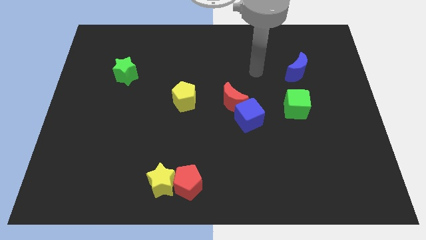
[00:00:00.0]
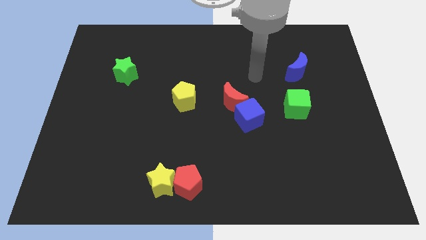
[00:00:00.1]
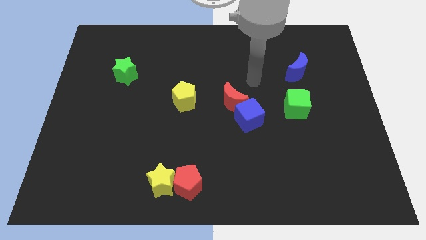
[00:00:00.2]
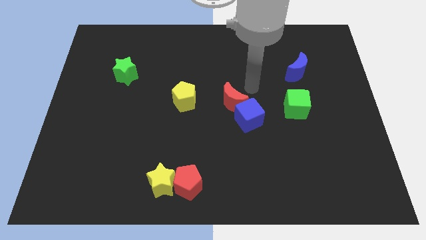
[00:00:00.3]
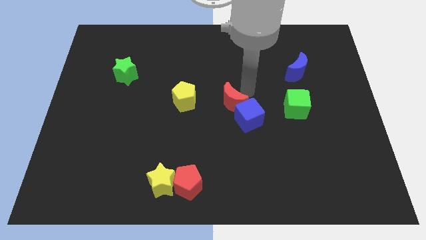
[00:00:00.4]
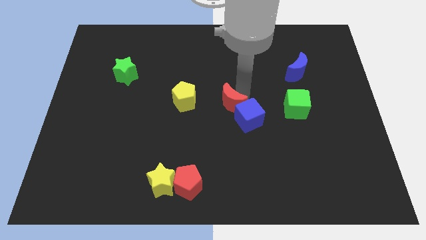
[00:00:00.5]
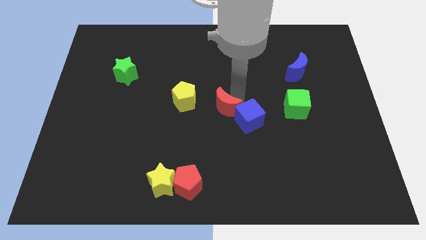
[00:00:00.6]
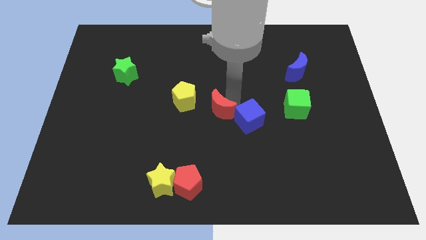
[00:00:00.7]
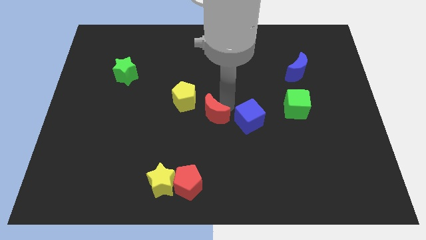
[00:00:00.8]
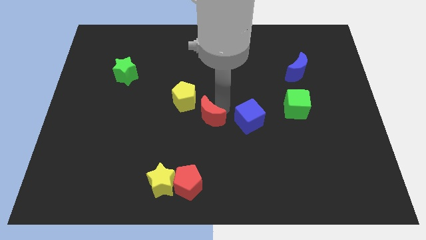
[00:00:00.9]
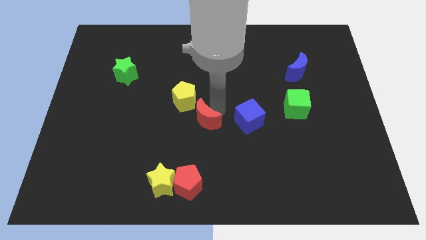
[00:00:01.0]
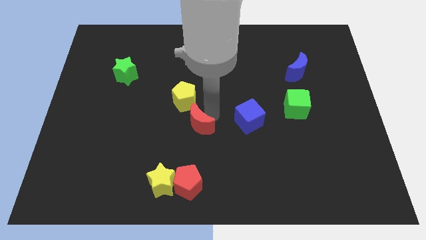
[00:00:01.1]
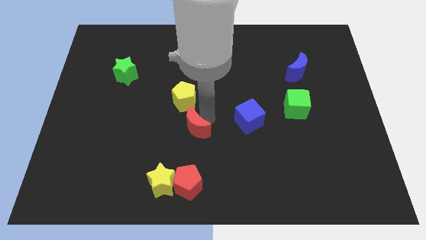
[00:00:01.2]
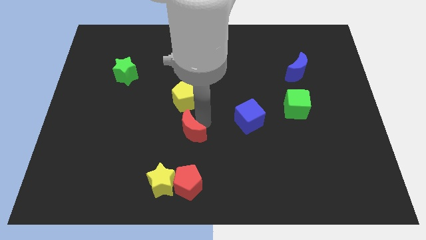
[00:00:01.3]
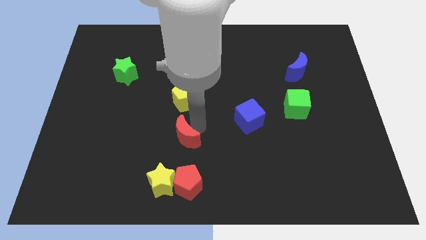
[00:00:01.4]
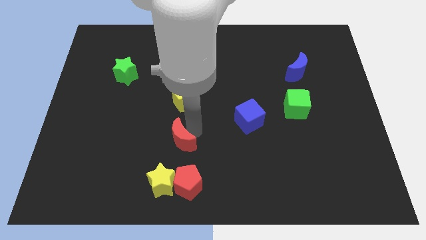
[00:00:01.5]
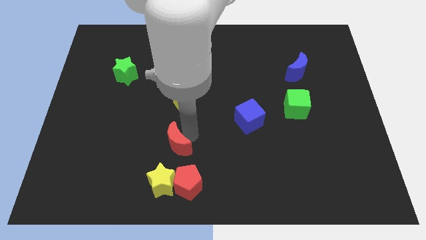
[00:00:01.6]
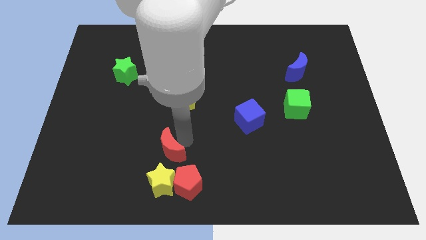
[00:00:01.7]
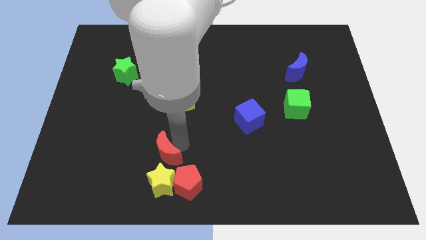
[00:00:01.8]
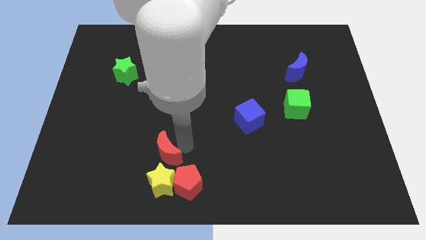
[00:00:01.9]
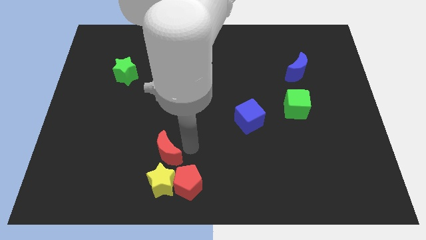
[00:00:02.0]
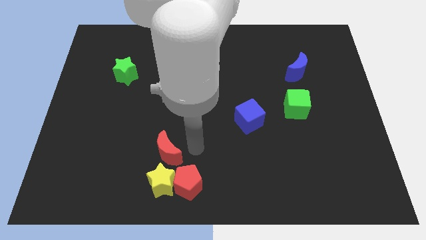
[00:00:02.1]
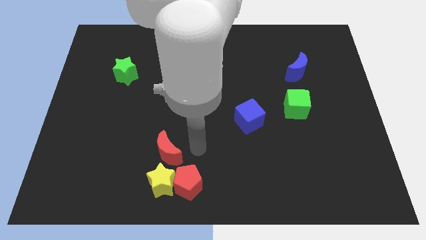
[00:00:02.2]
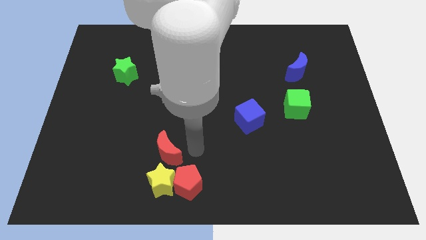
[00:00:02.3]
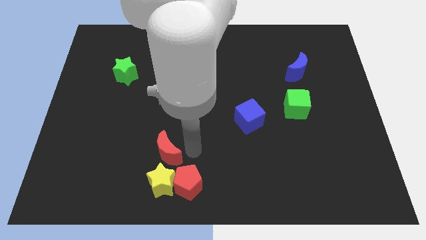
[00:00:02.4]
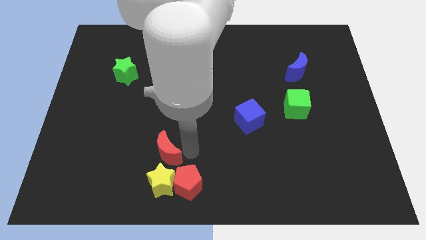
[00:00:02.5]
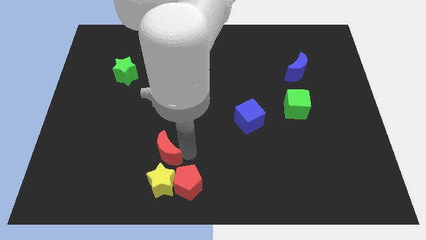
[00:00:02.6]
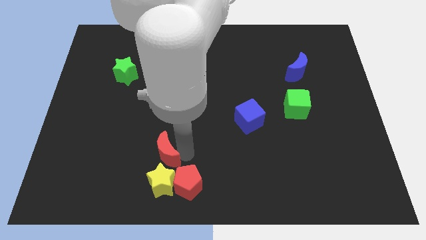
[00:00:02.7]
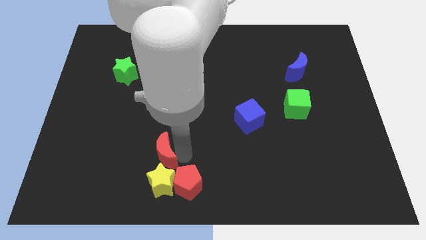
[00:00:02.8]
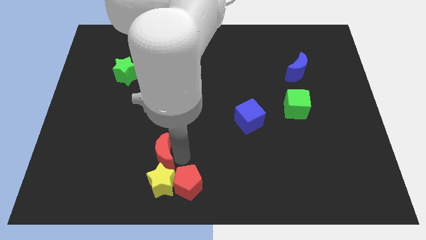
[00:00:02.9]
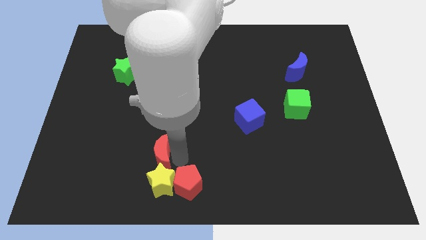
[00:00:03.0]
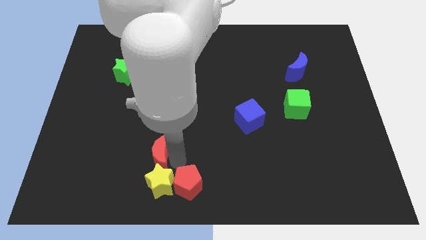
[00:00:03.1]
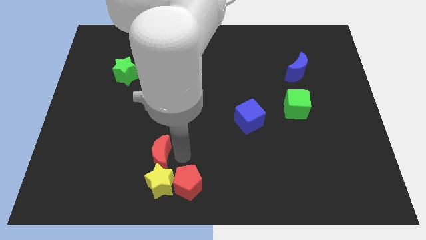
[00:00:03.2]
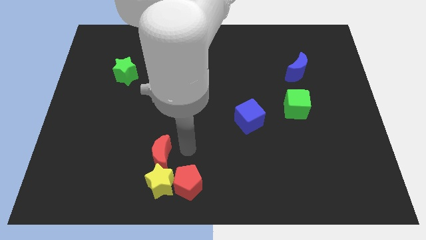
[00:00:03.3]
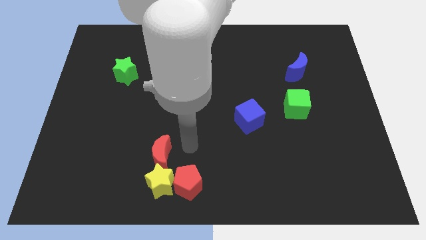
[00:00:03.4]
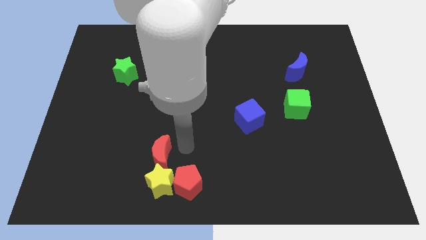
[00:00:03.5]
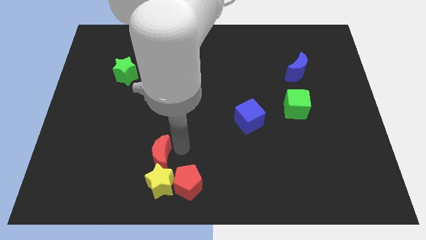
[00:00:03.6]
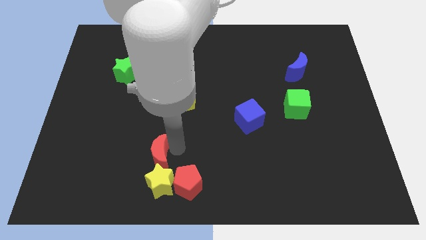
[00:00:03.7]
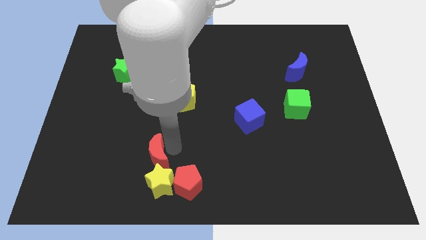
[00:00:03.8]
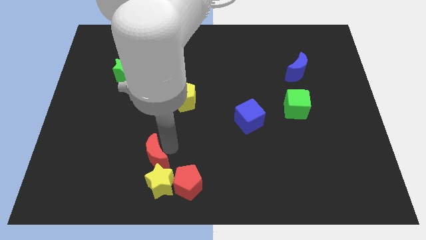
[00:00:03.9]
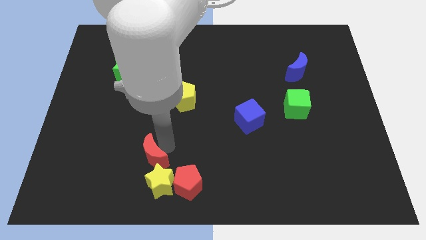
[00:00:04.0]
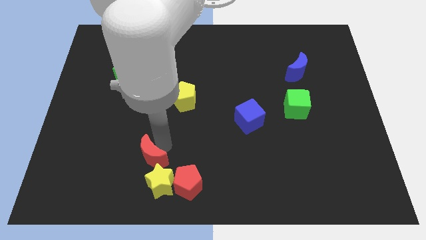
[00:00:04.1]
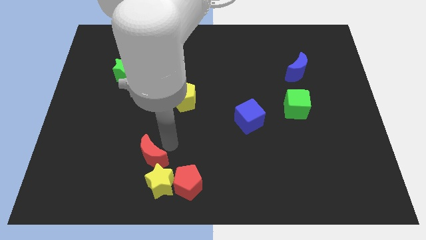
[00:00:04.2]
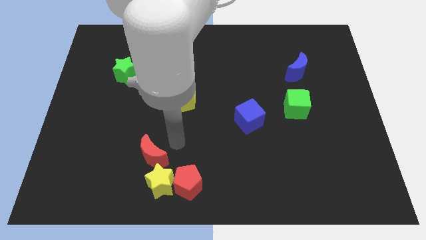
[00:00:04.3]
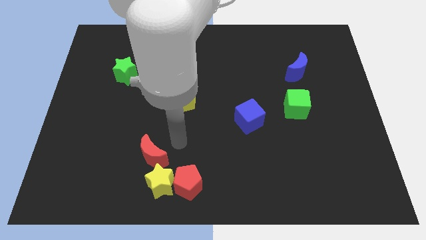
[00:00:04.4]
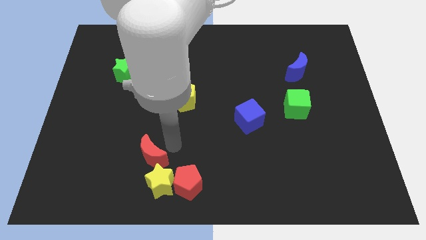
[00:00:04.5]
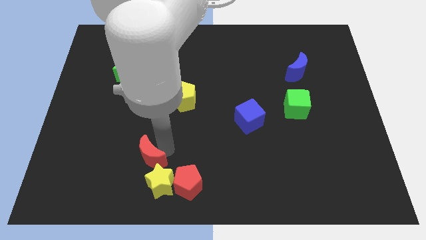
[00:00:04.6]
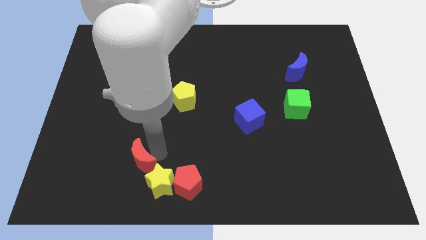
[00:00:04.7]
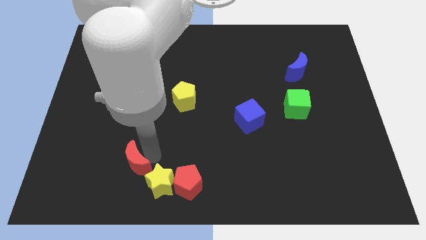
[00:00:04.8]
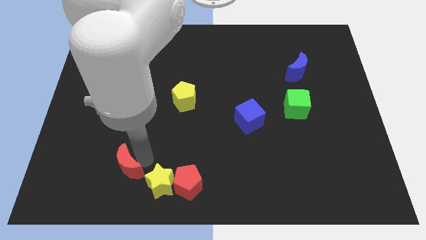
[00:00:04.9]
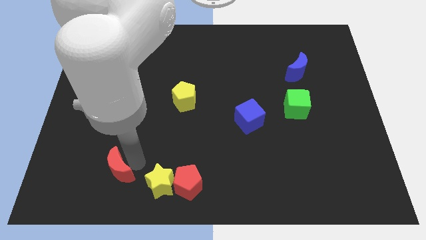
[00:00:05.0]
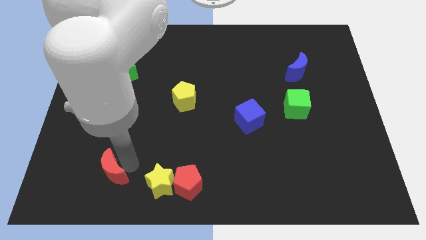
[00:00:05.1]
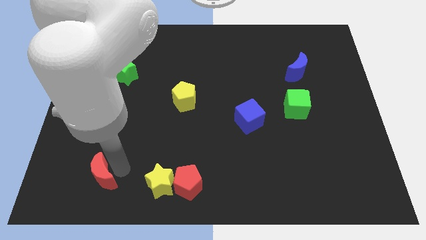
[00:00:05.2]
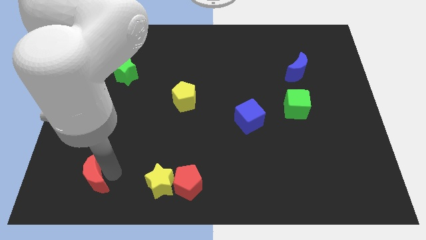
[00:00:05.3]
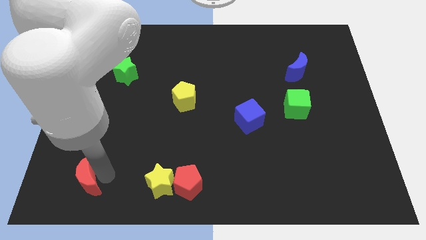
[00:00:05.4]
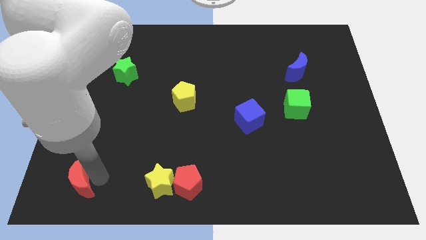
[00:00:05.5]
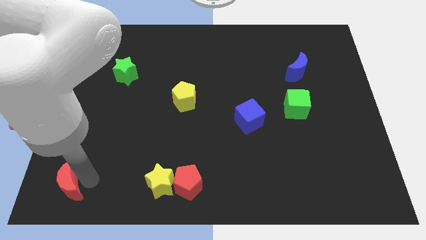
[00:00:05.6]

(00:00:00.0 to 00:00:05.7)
put the red moon to the bottom left of the board

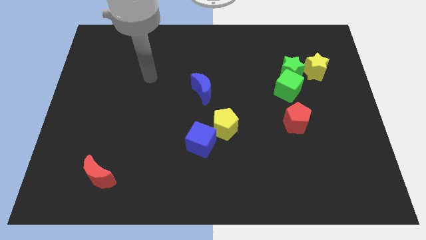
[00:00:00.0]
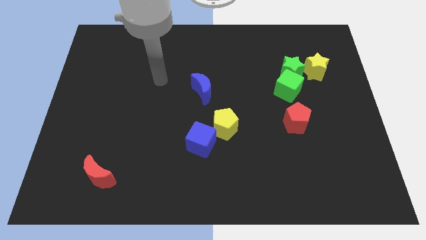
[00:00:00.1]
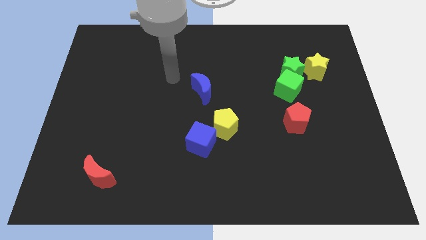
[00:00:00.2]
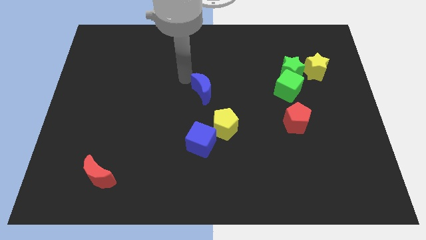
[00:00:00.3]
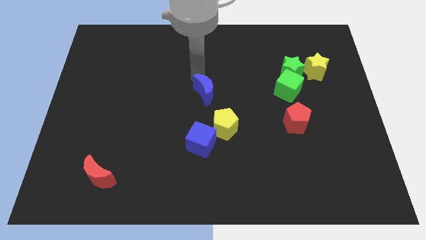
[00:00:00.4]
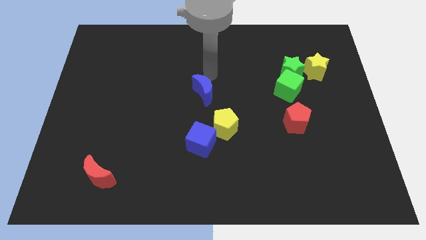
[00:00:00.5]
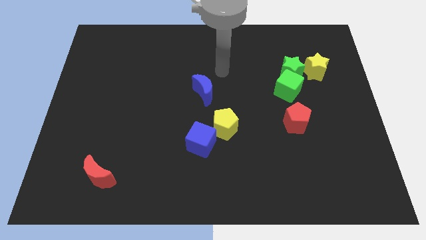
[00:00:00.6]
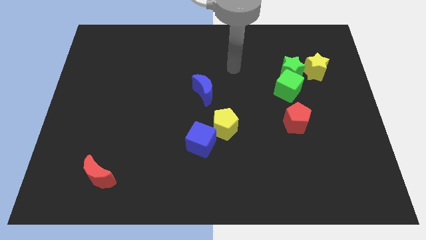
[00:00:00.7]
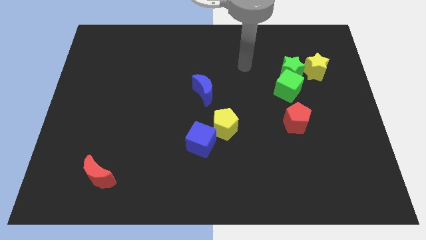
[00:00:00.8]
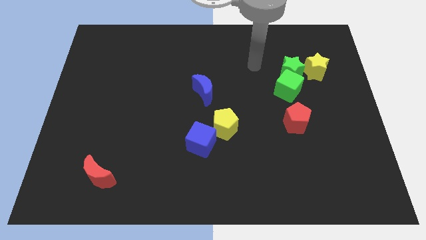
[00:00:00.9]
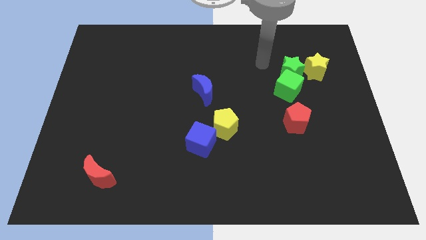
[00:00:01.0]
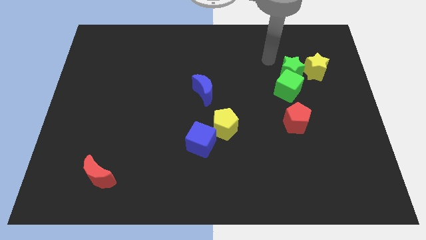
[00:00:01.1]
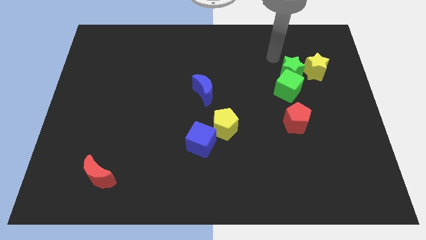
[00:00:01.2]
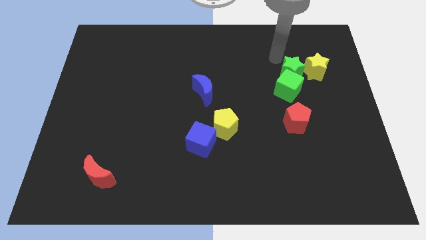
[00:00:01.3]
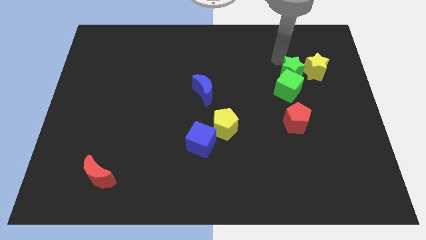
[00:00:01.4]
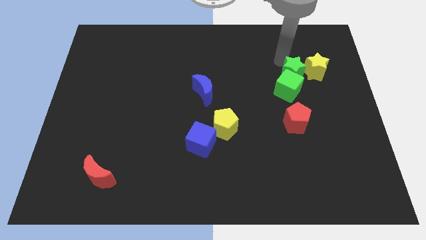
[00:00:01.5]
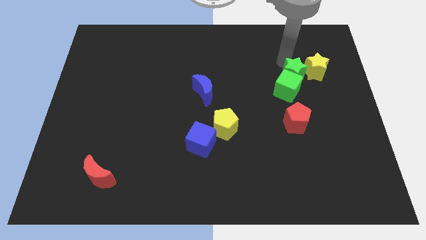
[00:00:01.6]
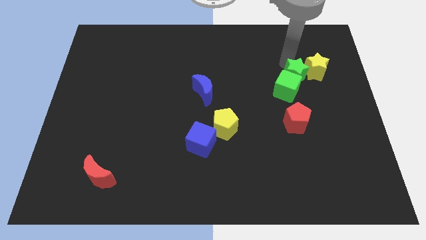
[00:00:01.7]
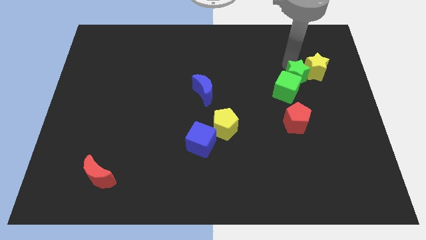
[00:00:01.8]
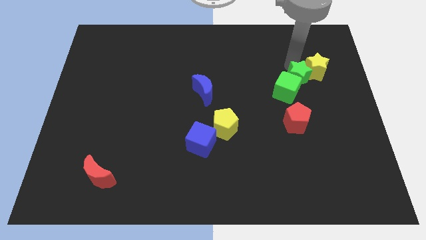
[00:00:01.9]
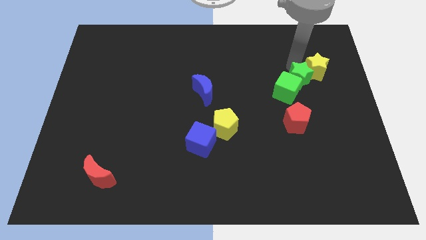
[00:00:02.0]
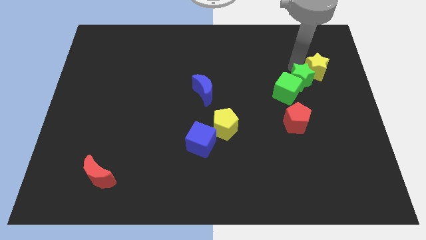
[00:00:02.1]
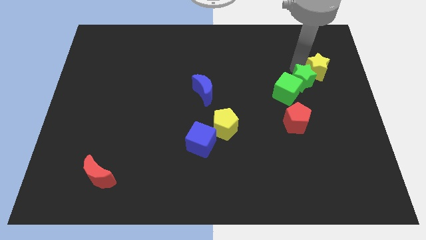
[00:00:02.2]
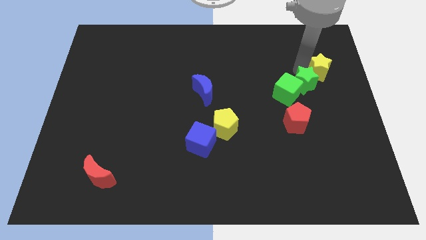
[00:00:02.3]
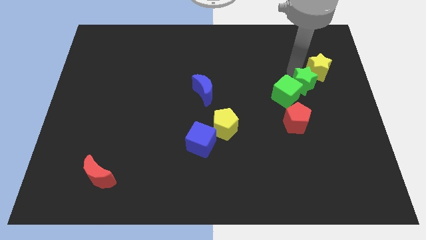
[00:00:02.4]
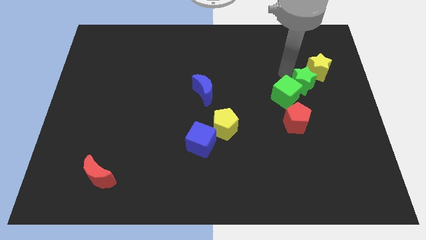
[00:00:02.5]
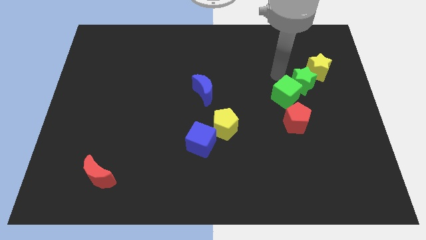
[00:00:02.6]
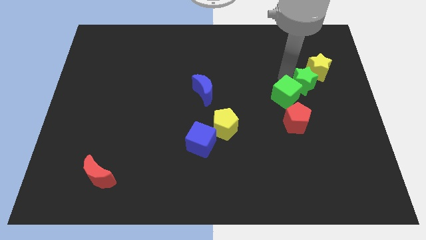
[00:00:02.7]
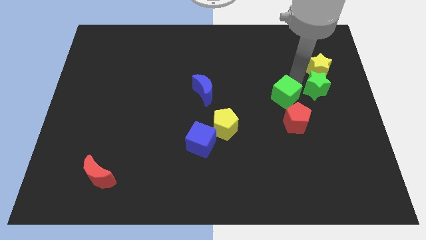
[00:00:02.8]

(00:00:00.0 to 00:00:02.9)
put the green star to the right side
